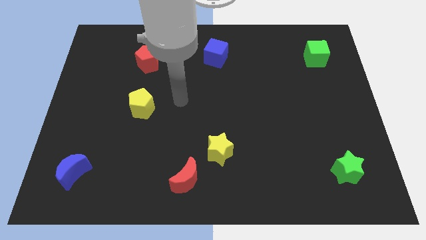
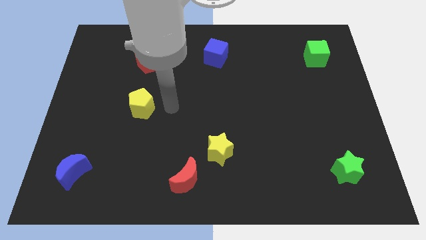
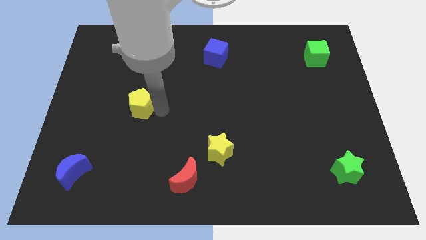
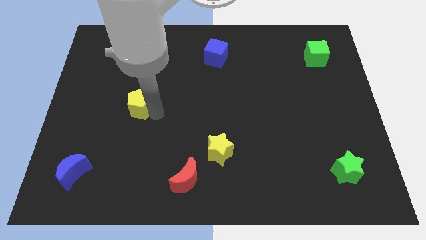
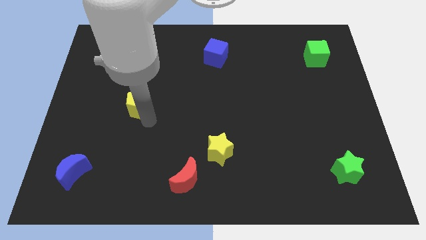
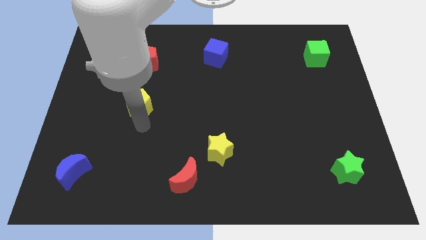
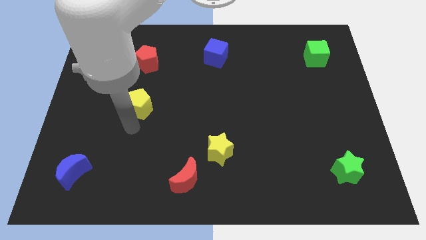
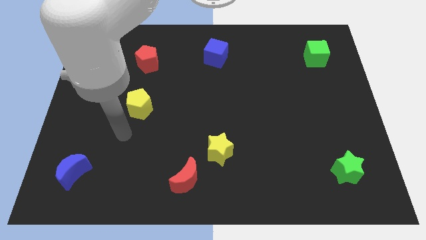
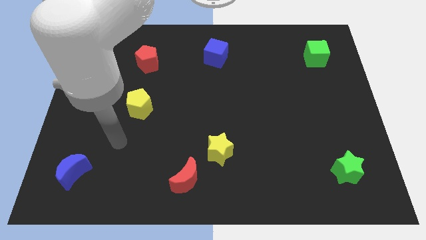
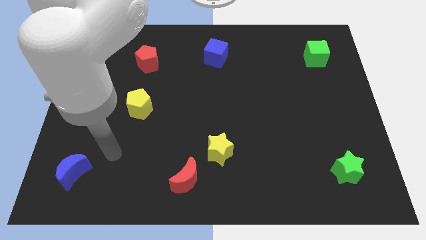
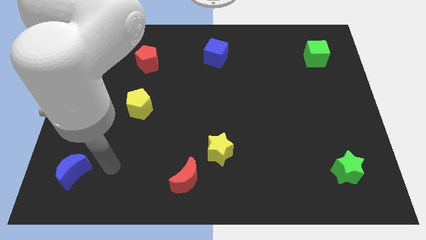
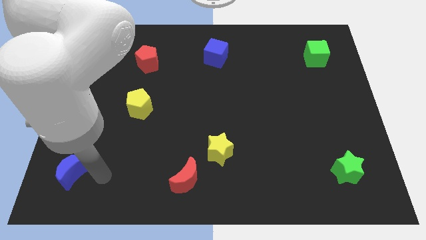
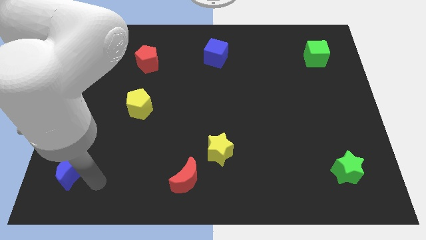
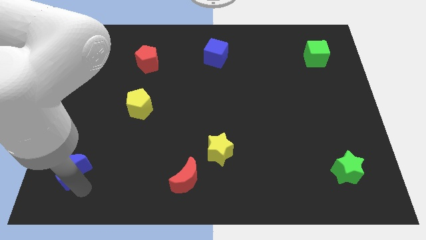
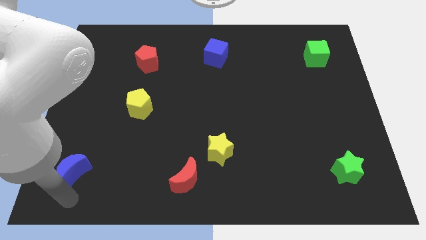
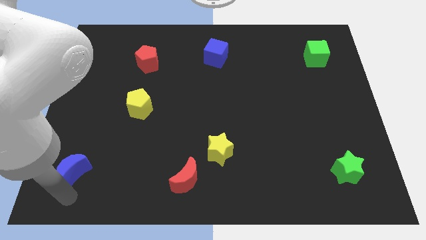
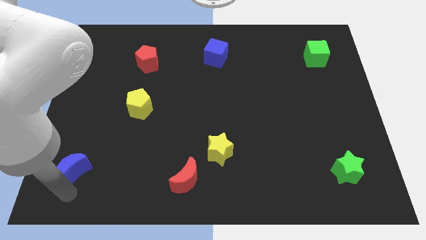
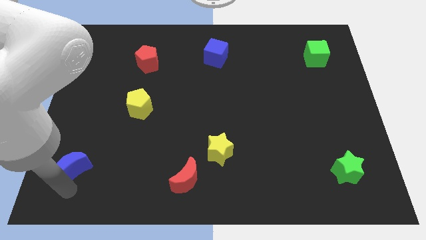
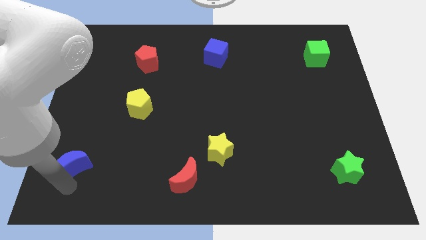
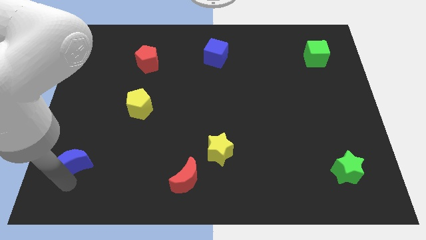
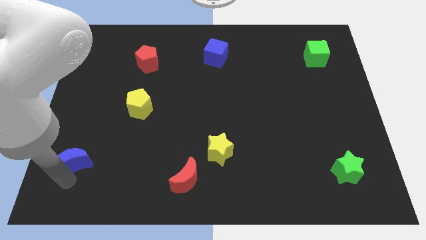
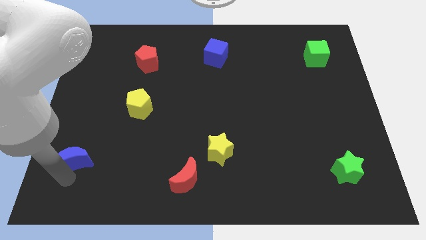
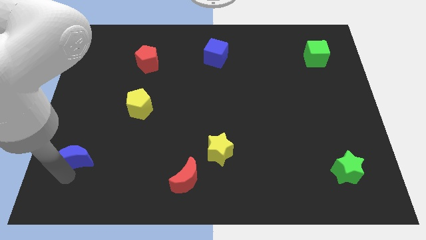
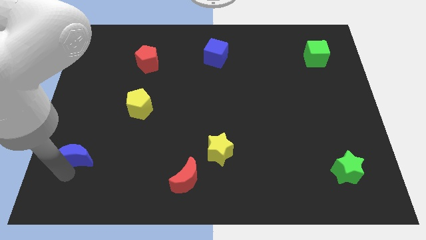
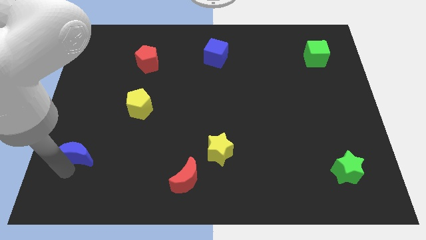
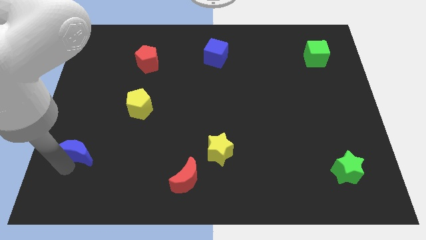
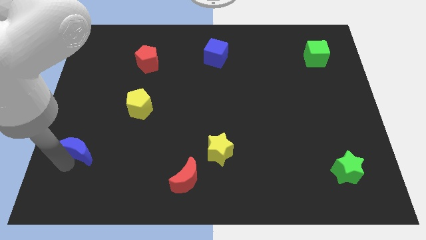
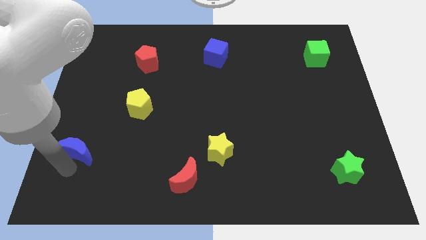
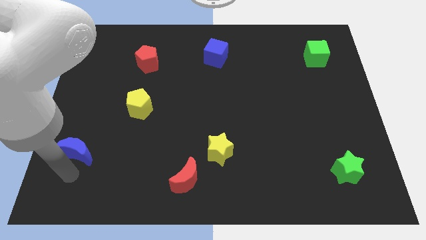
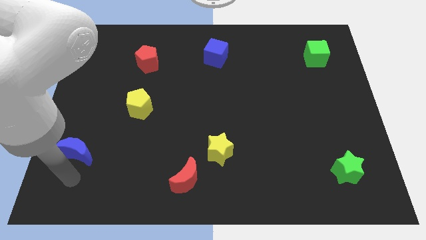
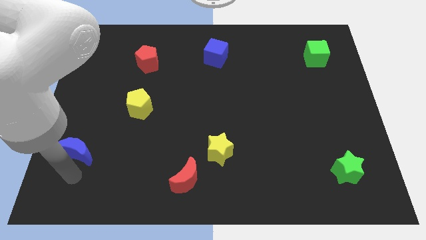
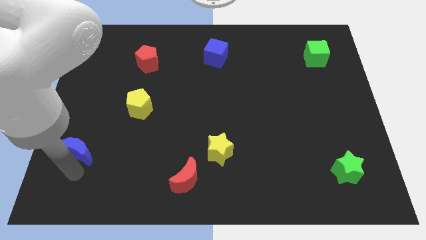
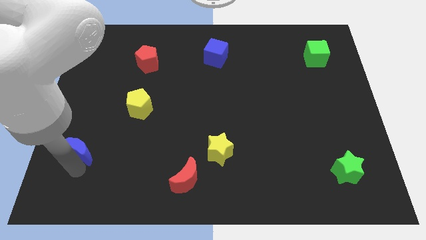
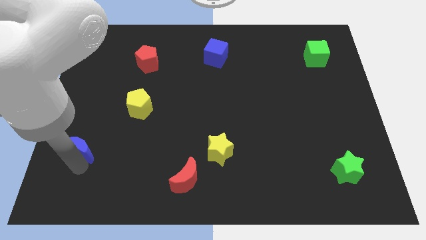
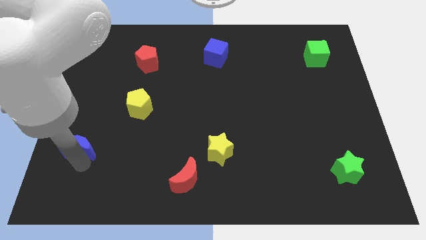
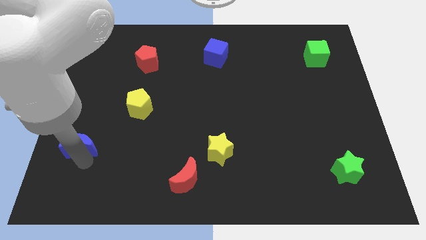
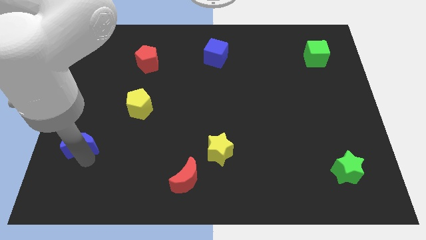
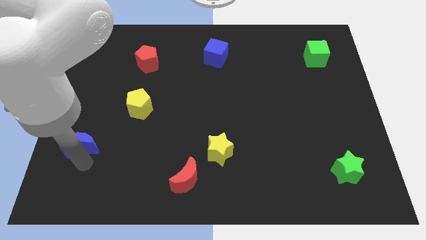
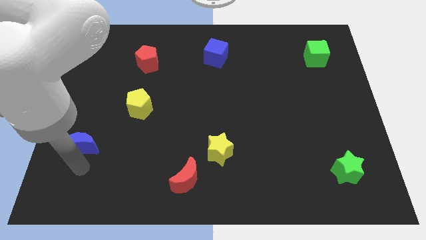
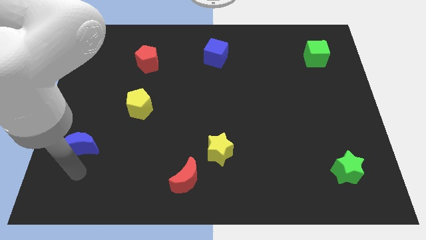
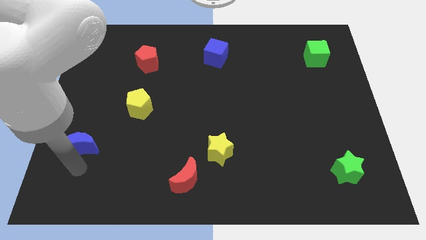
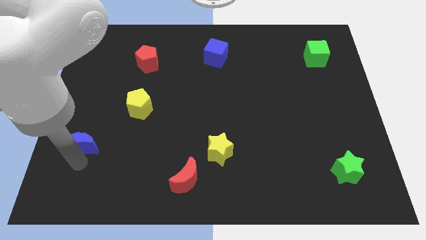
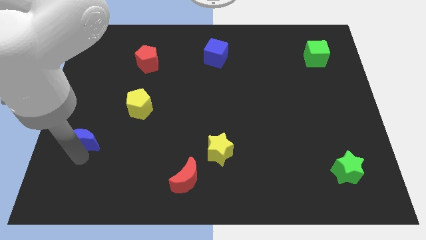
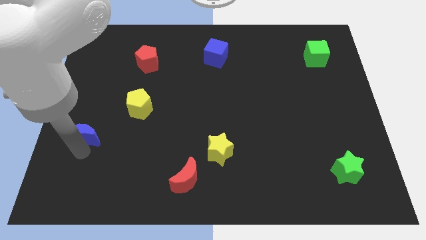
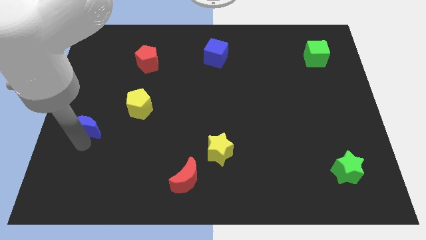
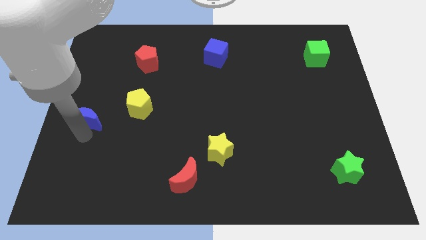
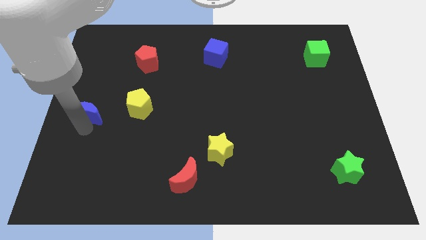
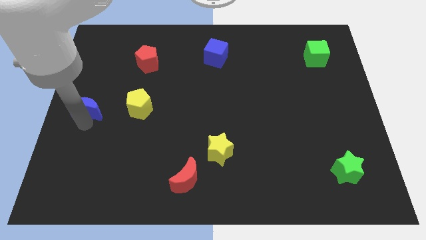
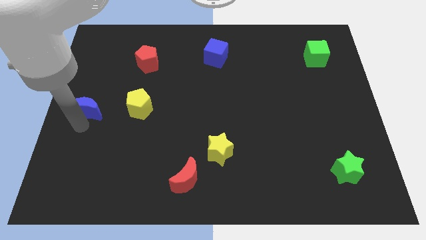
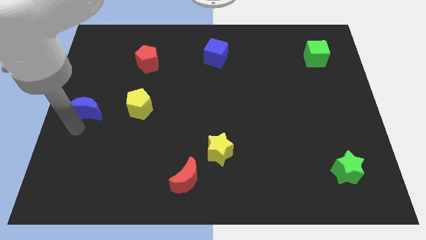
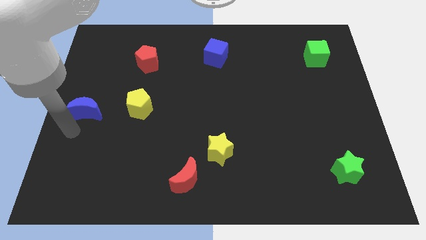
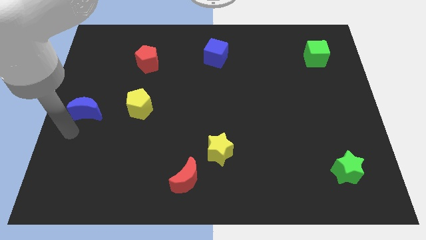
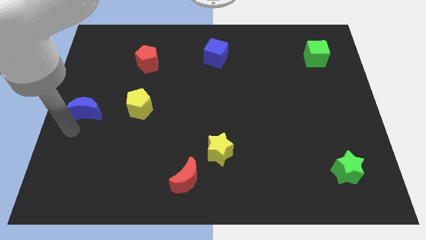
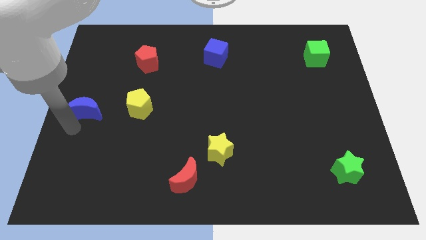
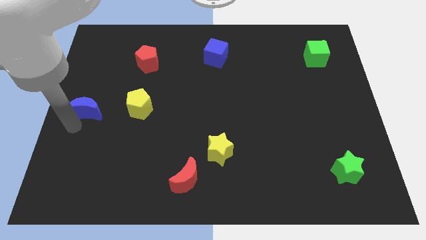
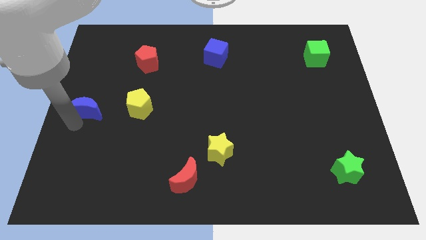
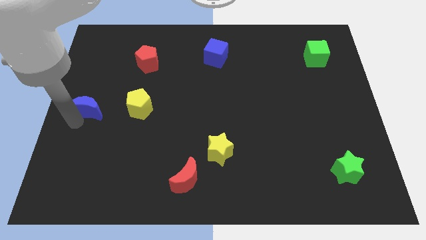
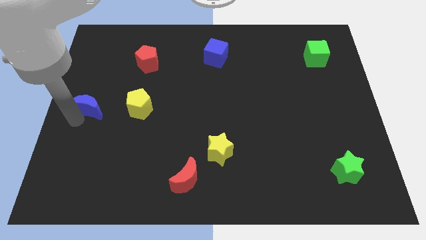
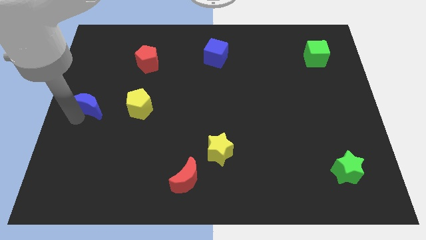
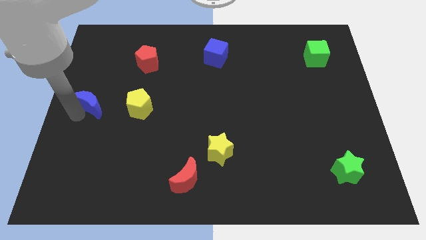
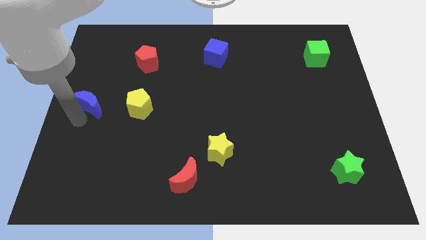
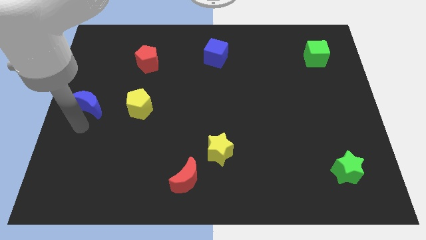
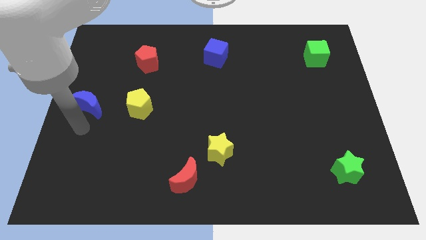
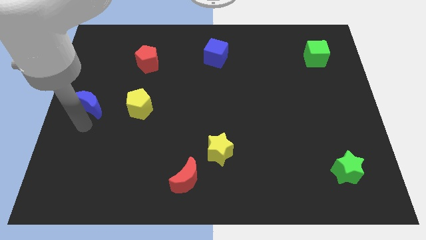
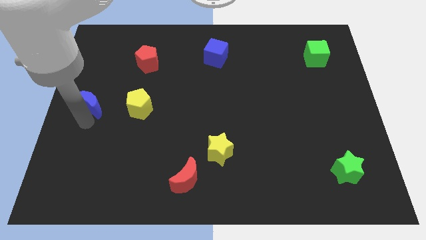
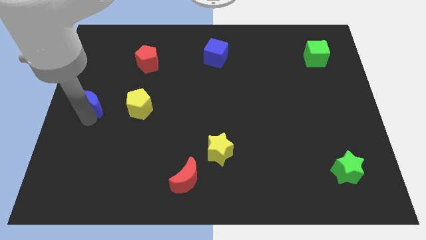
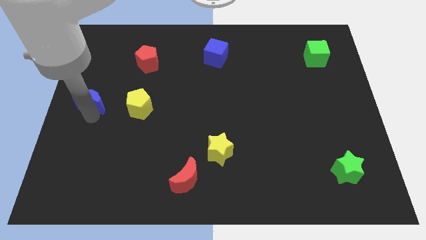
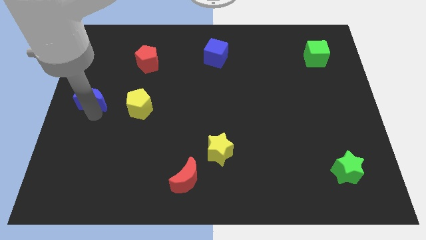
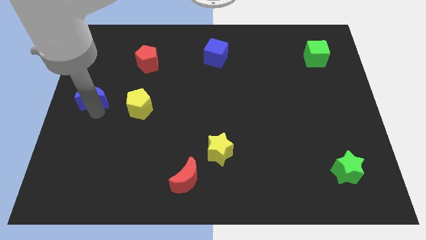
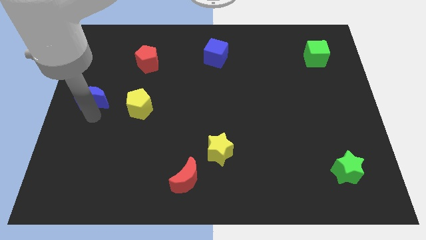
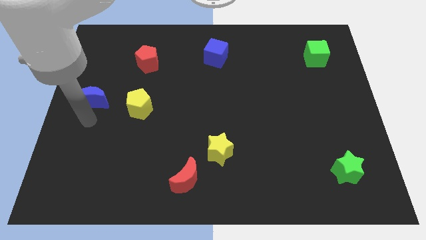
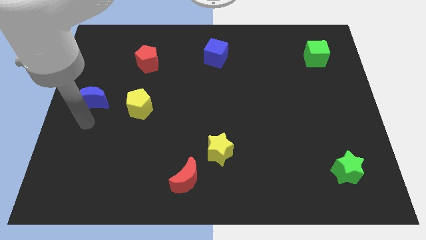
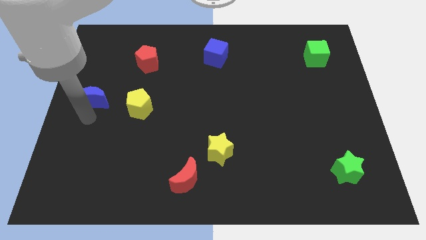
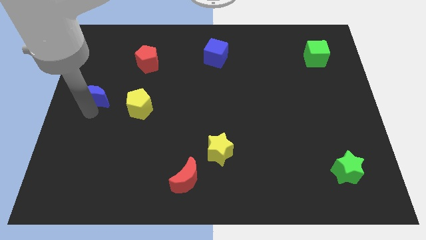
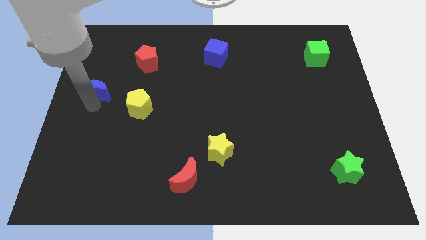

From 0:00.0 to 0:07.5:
push the blue moon upwards

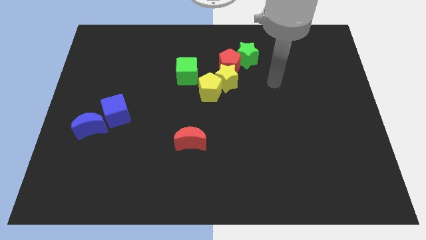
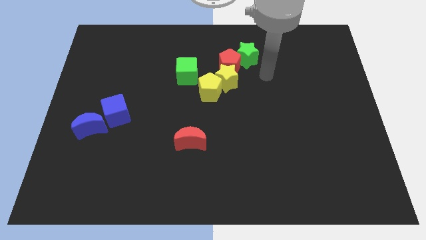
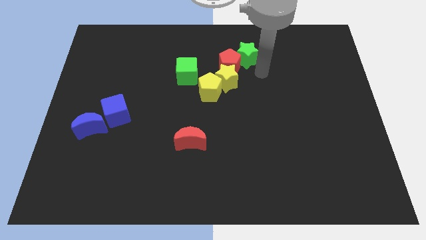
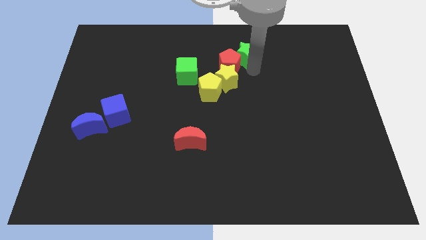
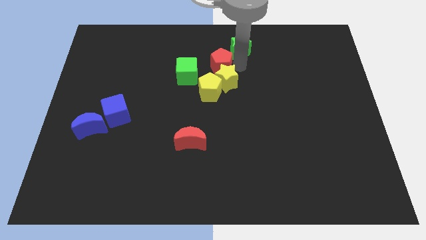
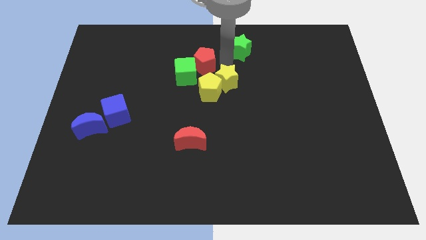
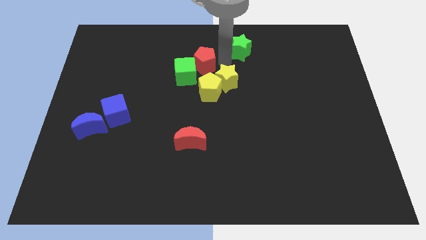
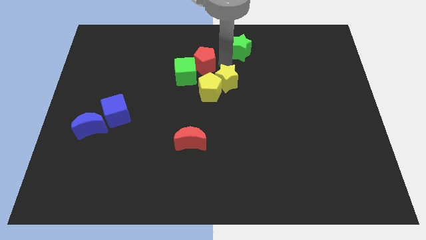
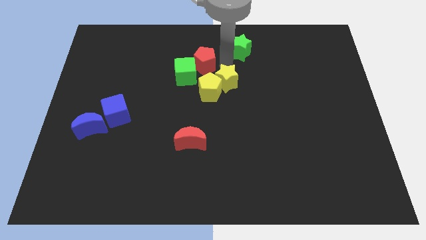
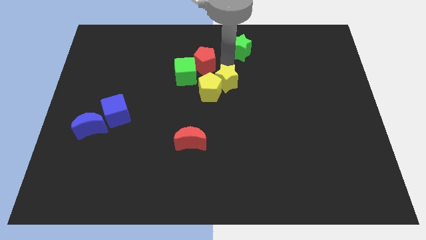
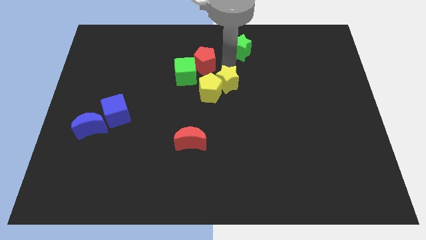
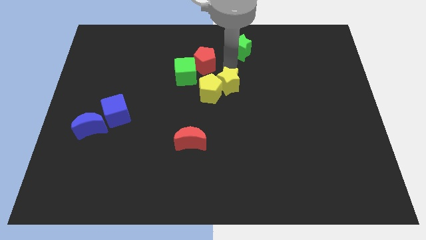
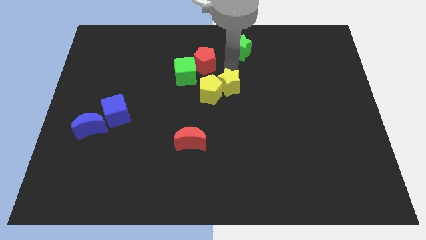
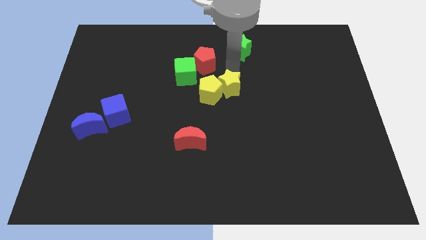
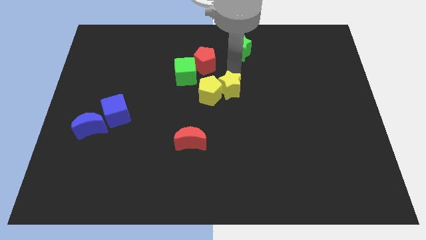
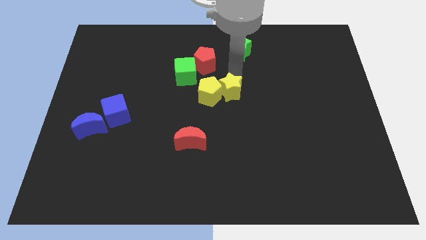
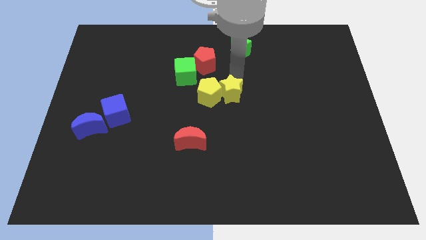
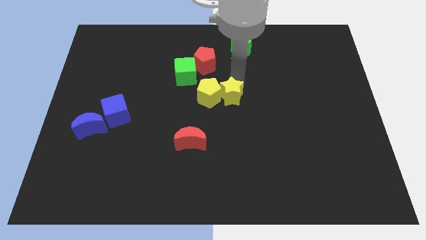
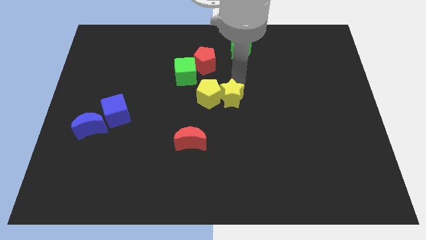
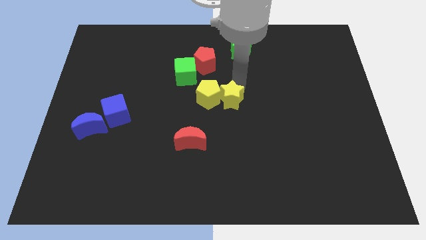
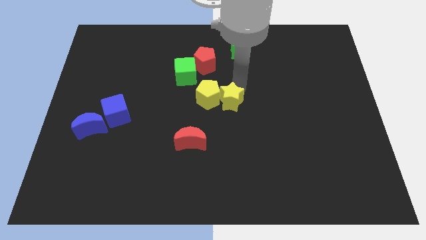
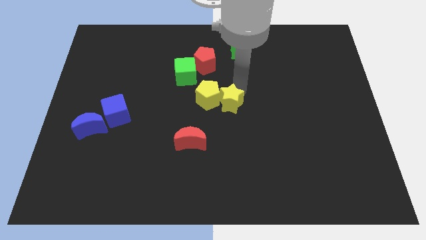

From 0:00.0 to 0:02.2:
push the yellow star down a bit
